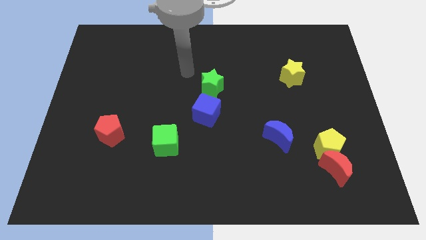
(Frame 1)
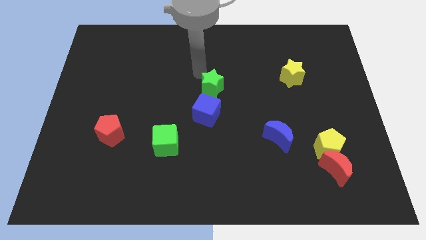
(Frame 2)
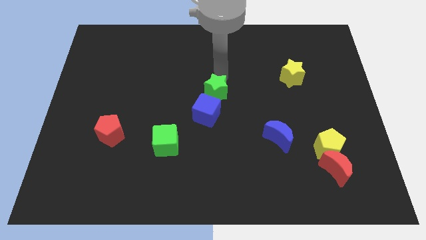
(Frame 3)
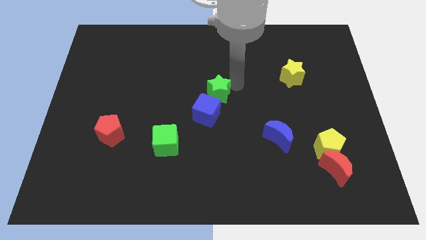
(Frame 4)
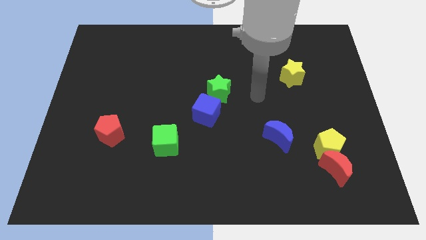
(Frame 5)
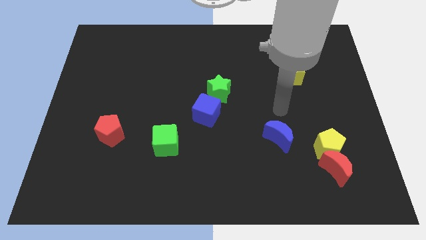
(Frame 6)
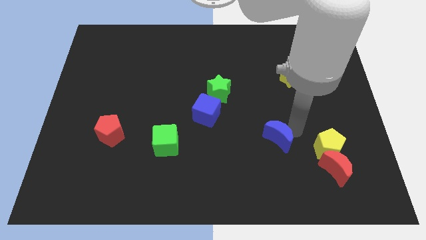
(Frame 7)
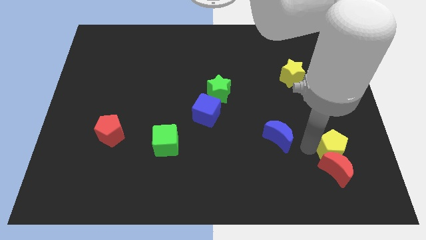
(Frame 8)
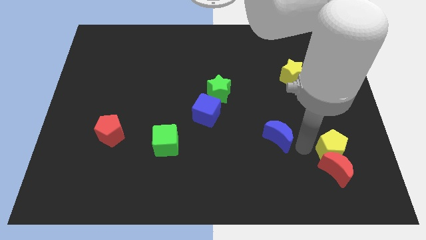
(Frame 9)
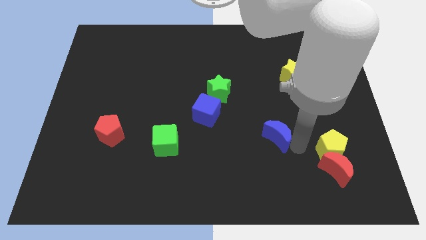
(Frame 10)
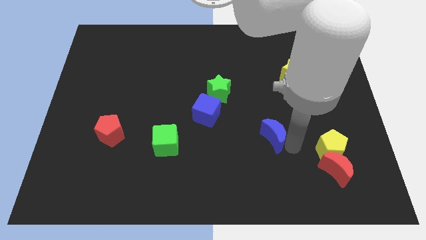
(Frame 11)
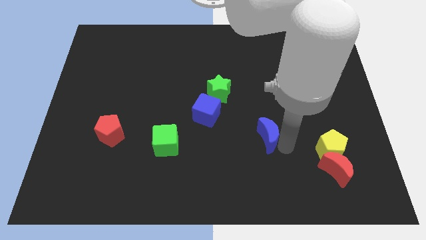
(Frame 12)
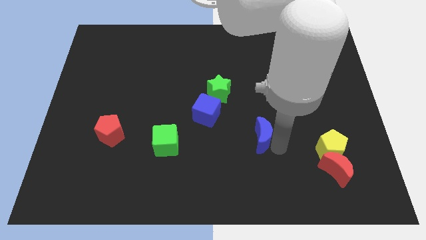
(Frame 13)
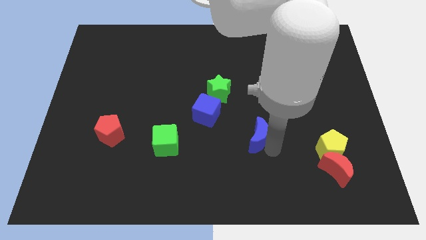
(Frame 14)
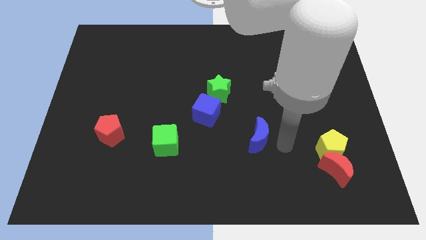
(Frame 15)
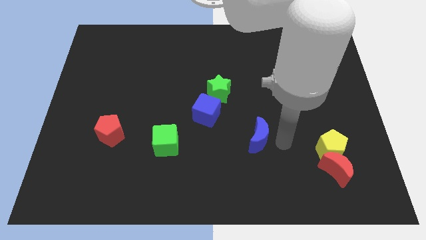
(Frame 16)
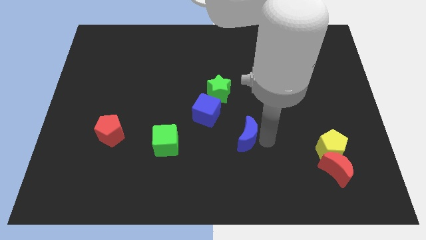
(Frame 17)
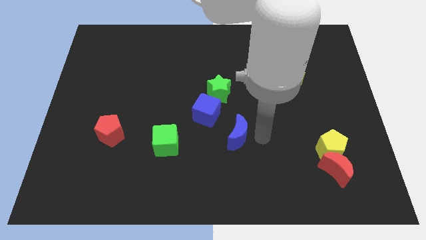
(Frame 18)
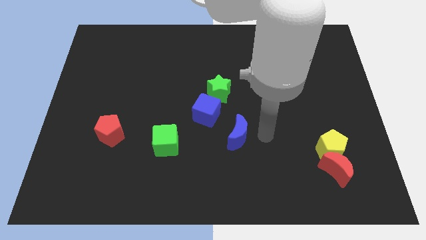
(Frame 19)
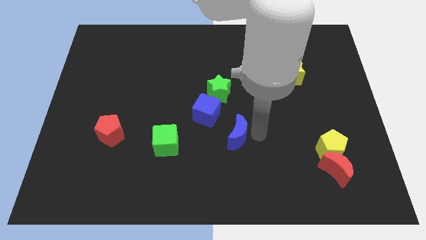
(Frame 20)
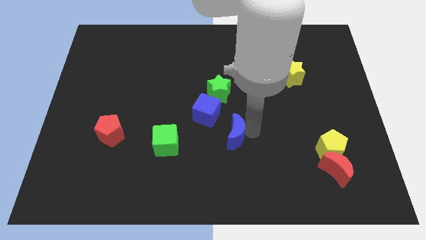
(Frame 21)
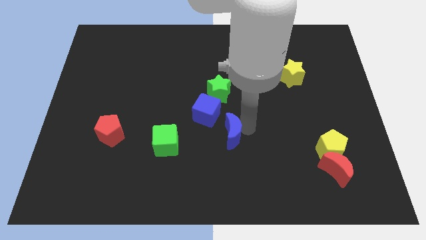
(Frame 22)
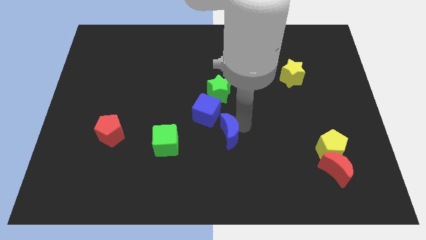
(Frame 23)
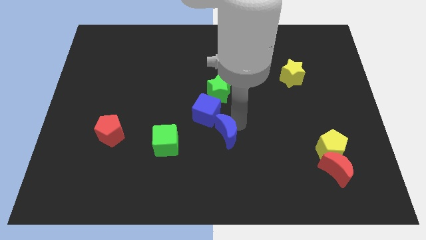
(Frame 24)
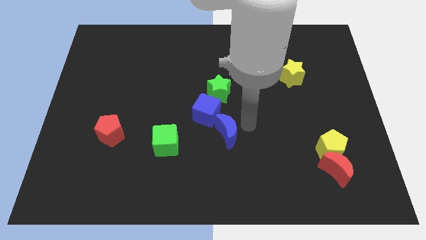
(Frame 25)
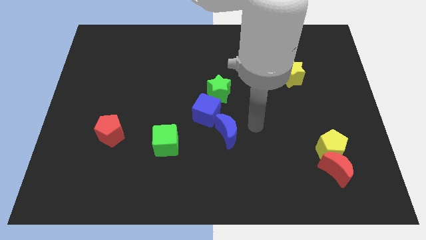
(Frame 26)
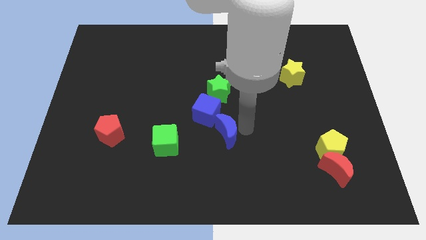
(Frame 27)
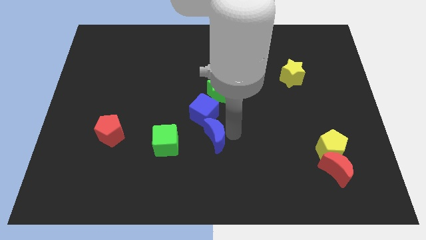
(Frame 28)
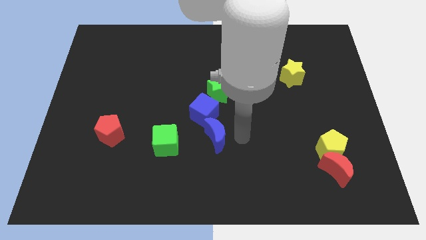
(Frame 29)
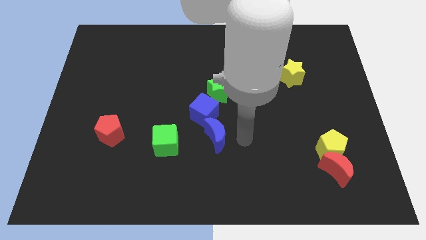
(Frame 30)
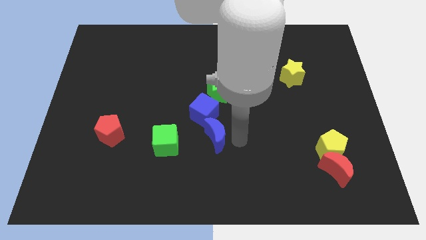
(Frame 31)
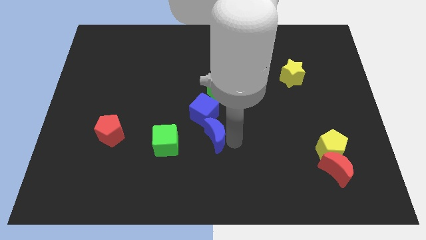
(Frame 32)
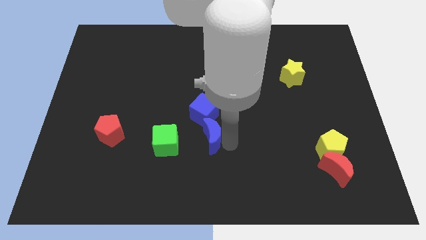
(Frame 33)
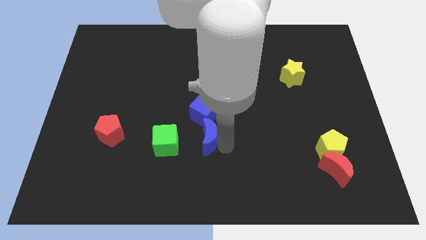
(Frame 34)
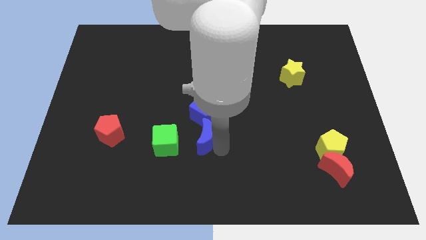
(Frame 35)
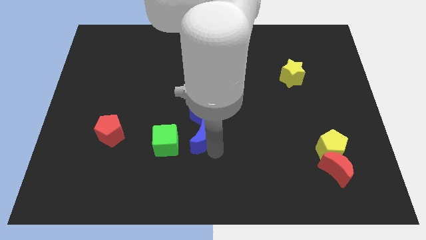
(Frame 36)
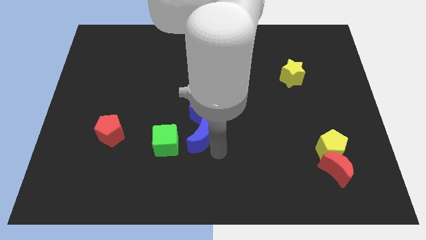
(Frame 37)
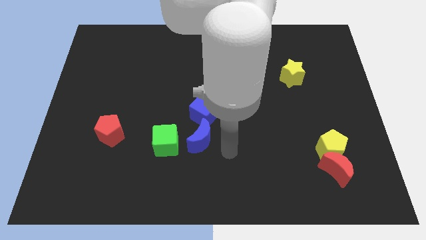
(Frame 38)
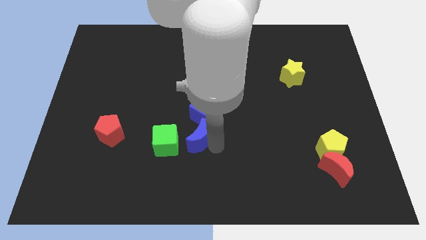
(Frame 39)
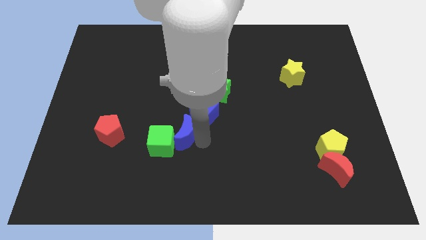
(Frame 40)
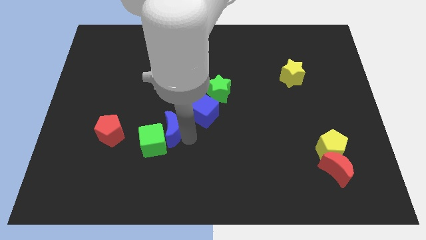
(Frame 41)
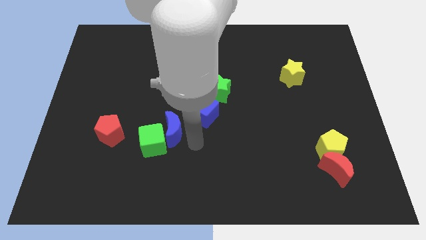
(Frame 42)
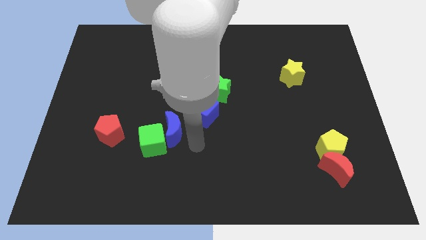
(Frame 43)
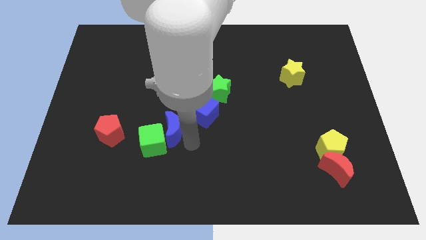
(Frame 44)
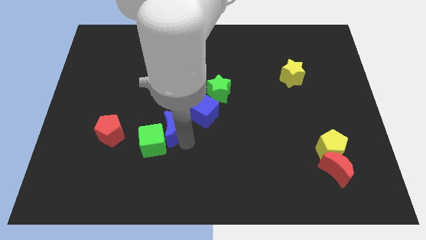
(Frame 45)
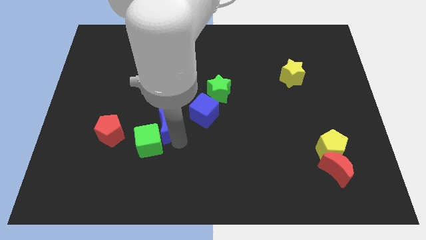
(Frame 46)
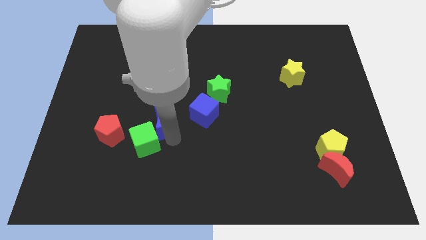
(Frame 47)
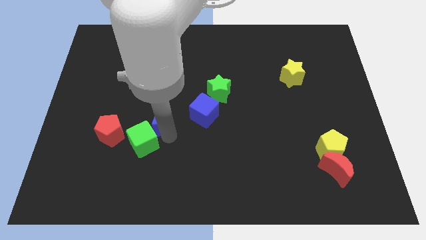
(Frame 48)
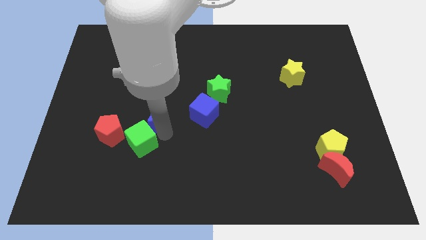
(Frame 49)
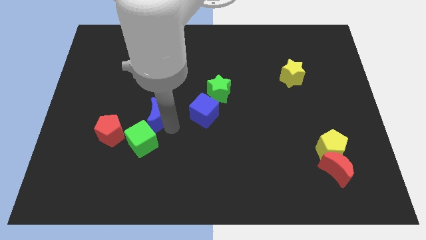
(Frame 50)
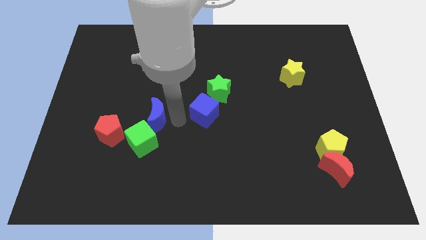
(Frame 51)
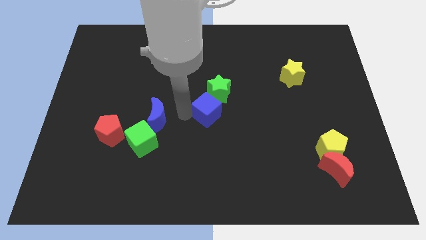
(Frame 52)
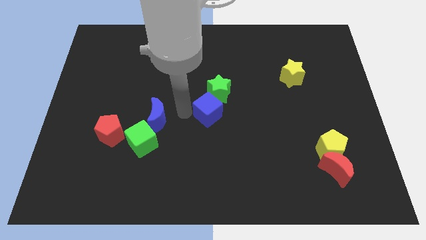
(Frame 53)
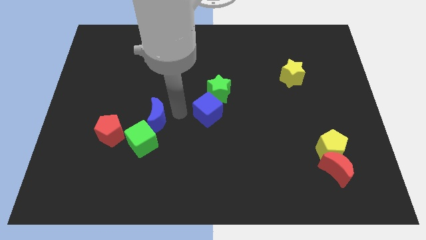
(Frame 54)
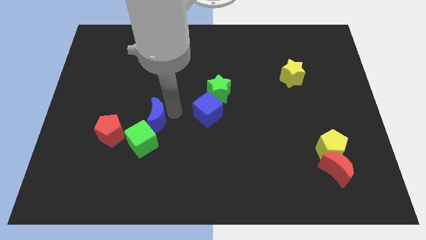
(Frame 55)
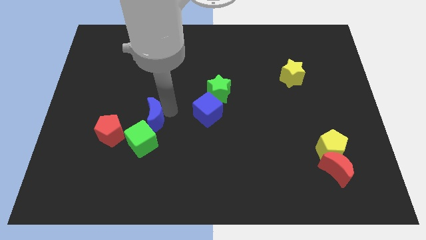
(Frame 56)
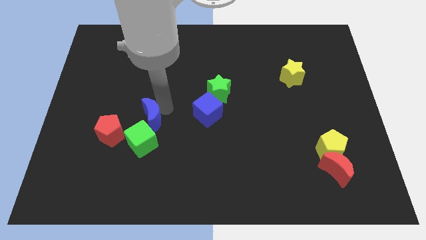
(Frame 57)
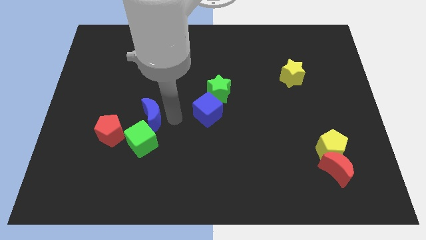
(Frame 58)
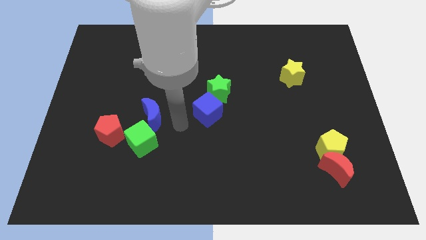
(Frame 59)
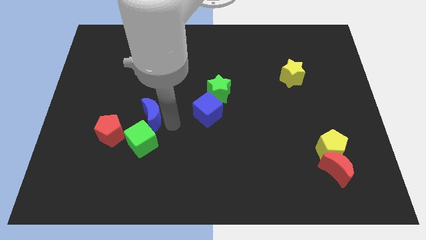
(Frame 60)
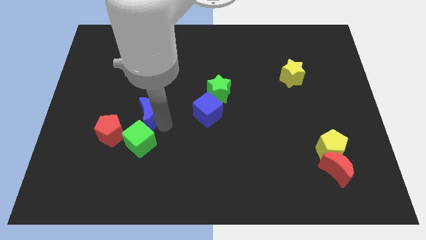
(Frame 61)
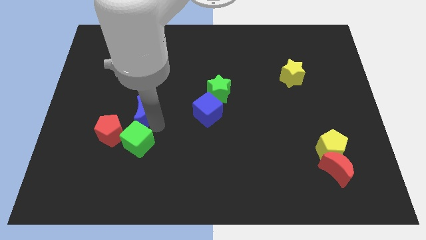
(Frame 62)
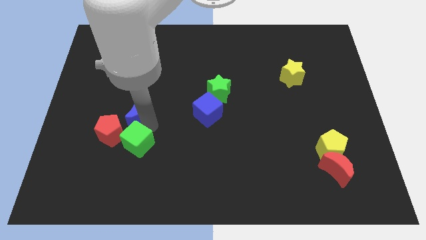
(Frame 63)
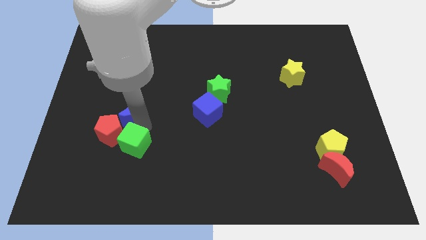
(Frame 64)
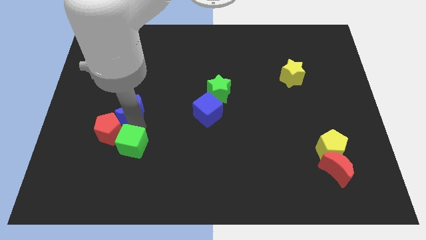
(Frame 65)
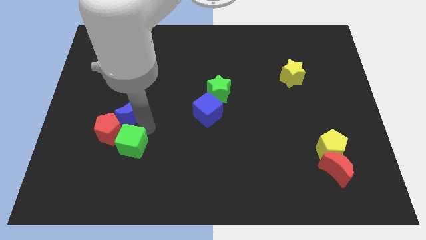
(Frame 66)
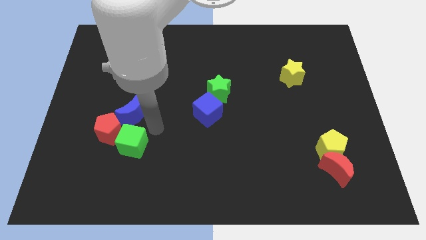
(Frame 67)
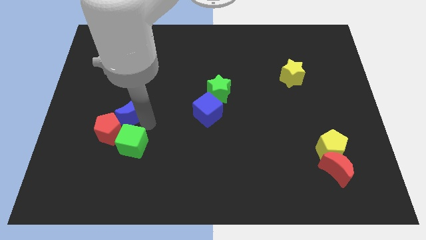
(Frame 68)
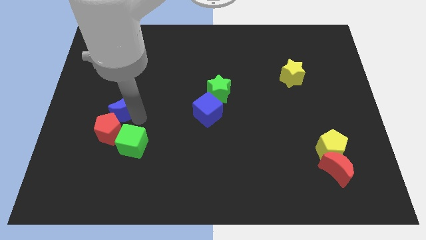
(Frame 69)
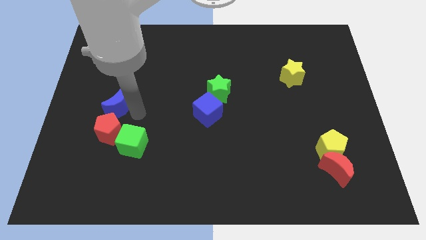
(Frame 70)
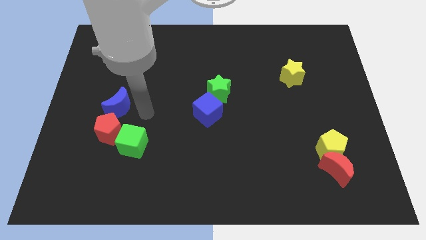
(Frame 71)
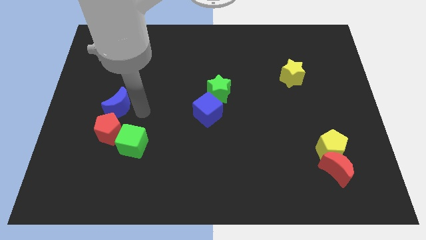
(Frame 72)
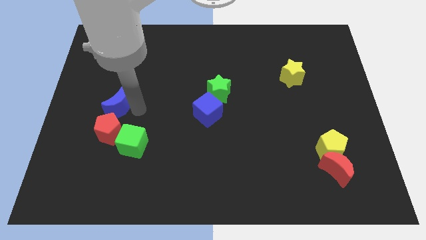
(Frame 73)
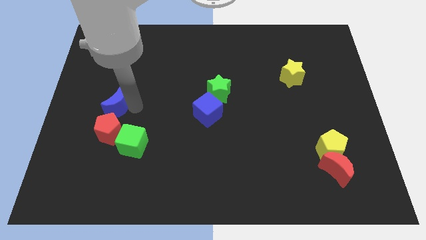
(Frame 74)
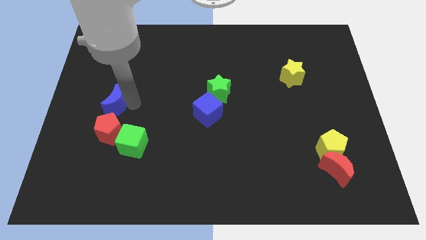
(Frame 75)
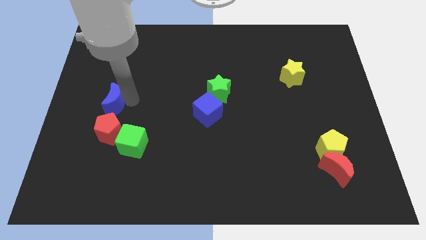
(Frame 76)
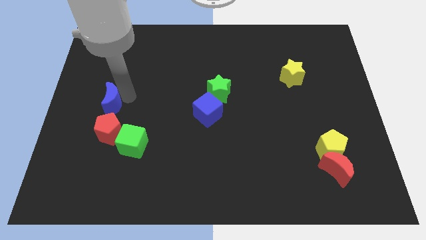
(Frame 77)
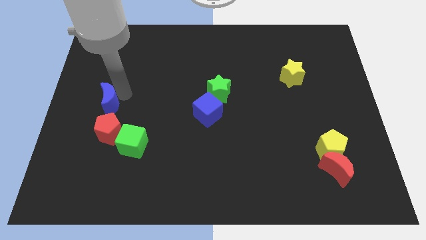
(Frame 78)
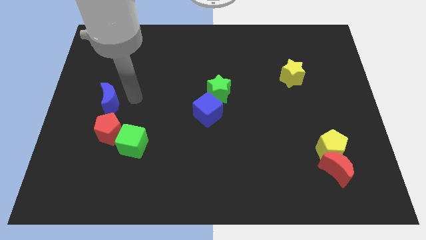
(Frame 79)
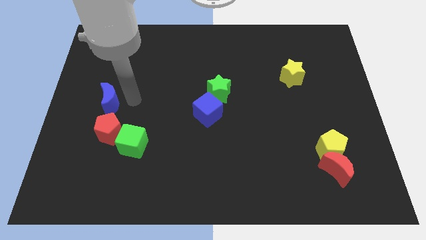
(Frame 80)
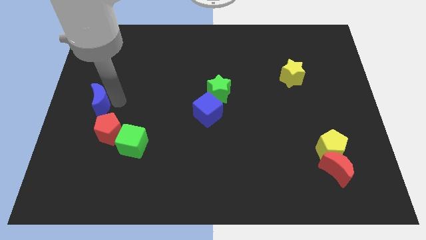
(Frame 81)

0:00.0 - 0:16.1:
move the blue moon to the center left
